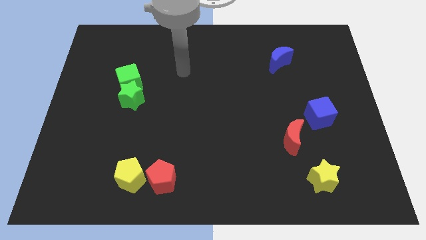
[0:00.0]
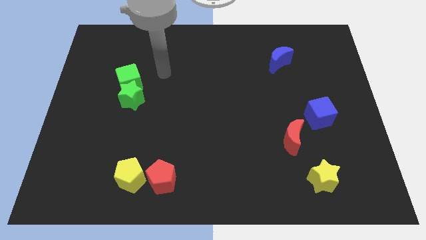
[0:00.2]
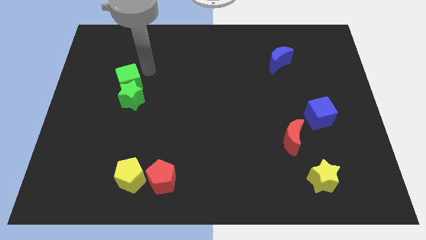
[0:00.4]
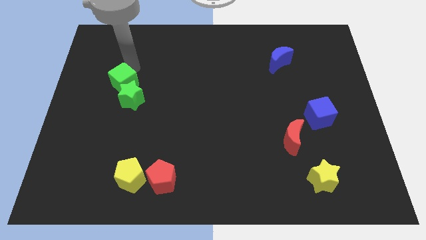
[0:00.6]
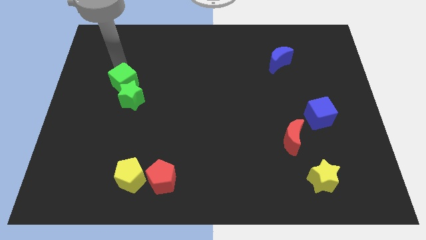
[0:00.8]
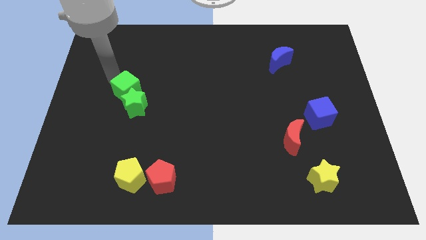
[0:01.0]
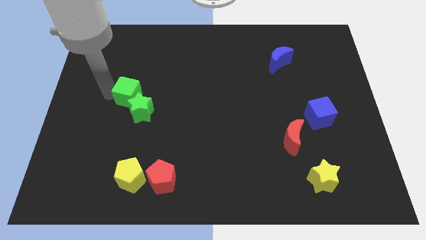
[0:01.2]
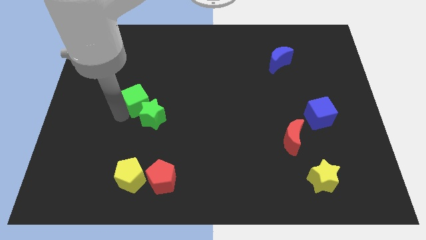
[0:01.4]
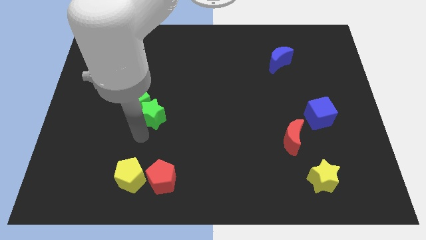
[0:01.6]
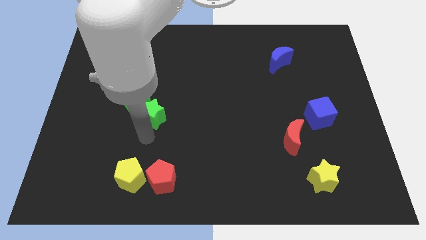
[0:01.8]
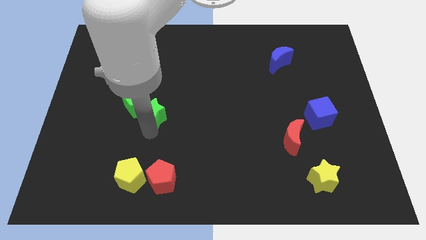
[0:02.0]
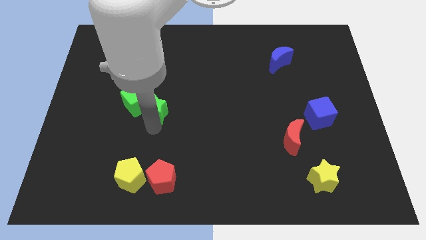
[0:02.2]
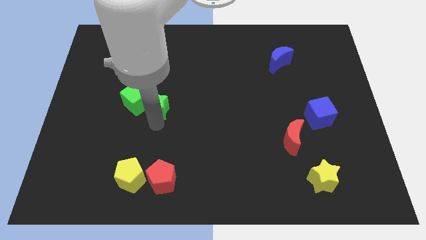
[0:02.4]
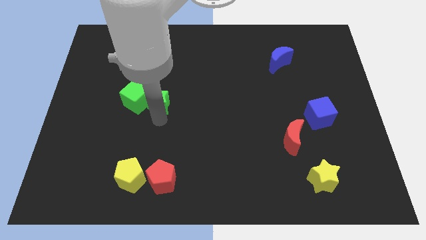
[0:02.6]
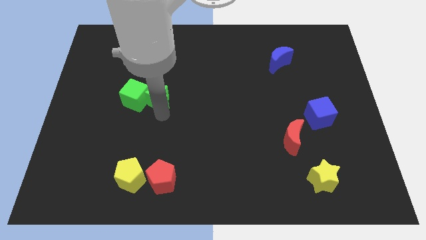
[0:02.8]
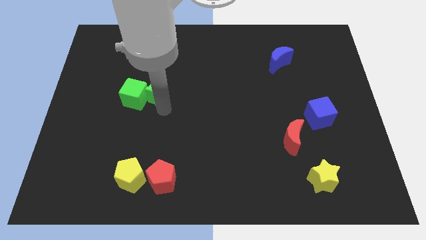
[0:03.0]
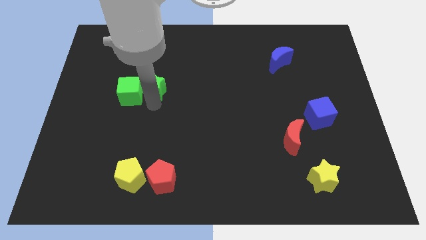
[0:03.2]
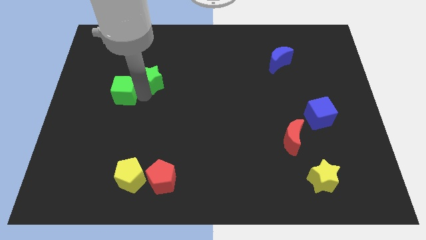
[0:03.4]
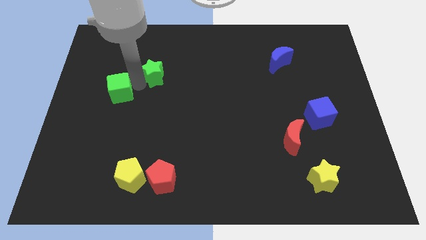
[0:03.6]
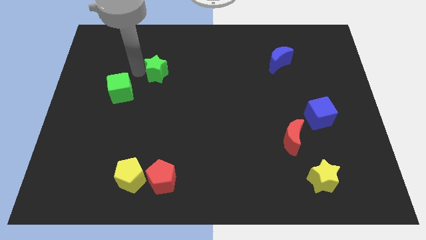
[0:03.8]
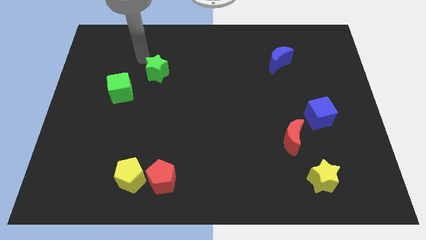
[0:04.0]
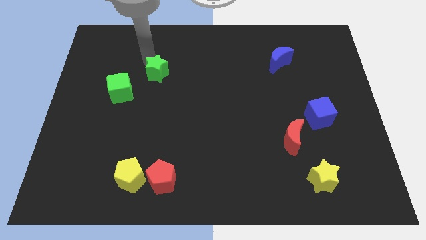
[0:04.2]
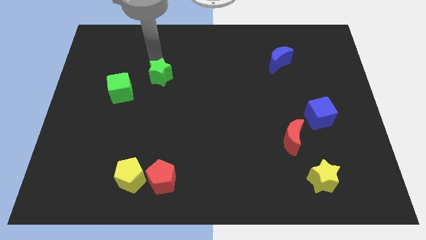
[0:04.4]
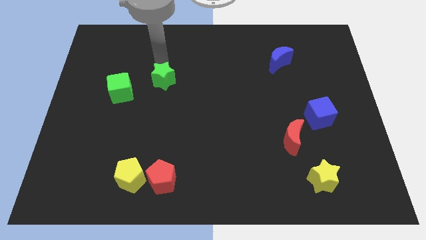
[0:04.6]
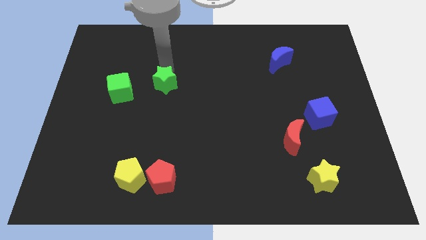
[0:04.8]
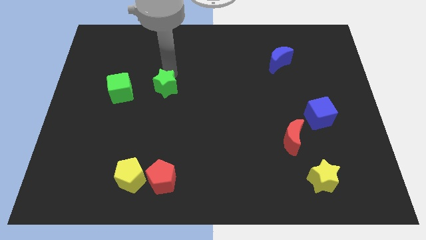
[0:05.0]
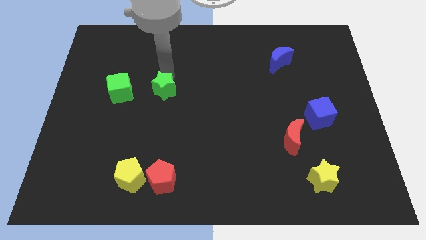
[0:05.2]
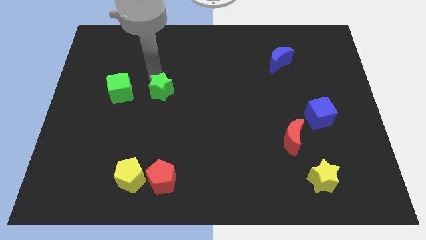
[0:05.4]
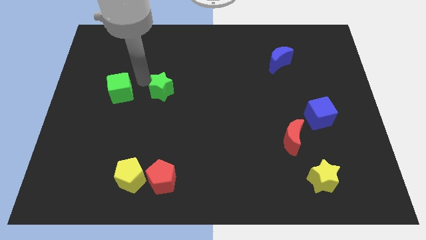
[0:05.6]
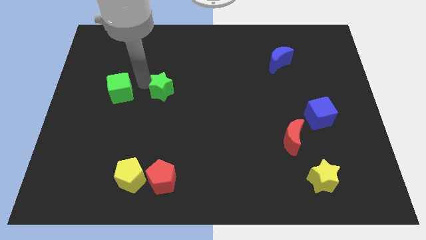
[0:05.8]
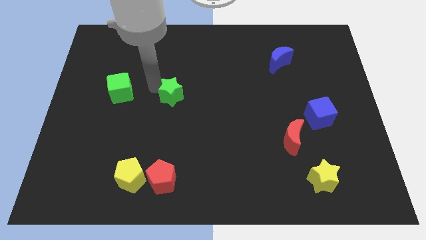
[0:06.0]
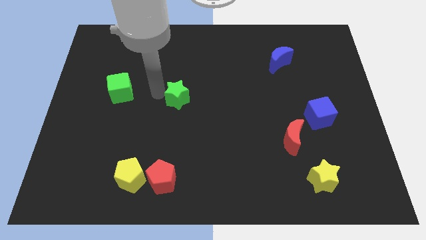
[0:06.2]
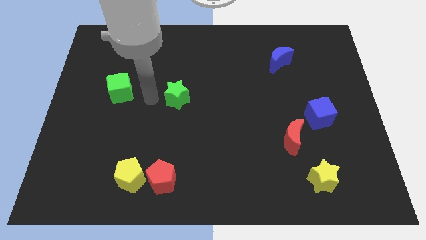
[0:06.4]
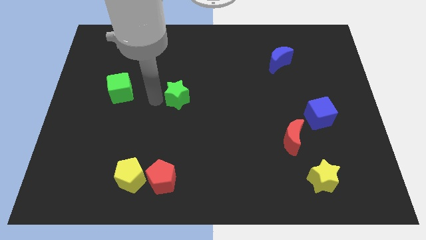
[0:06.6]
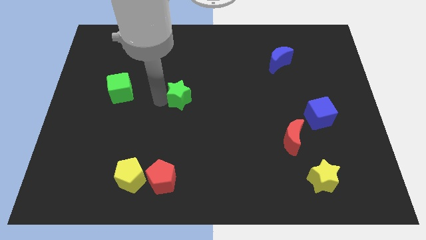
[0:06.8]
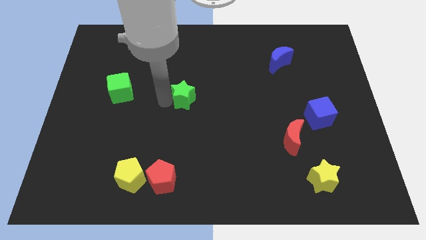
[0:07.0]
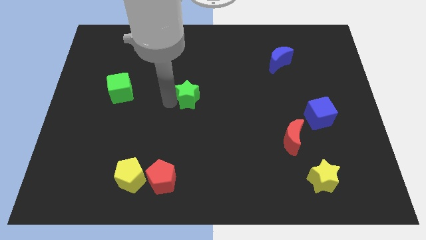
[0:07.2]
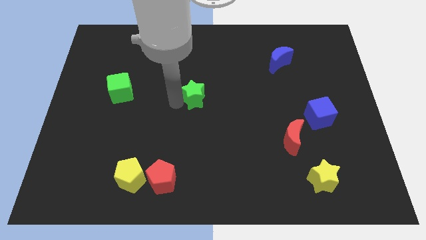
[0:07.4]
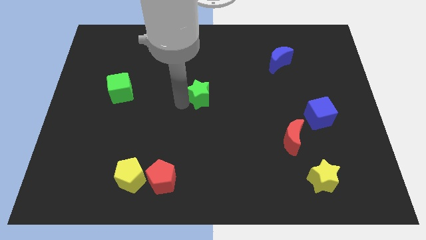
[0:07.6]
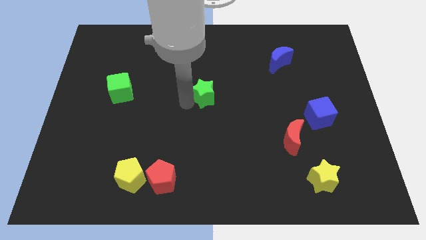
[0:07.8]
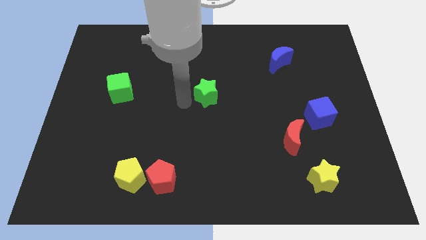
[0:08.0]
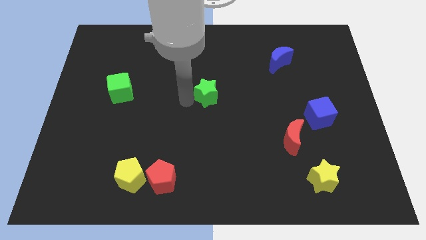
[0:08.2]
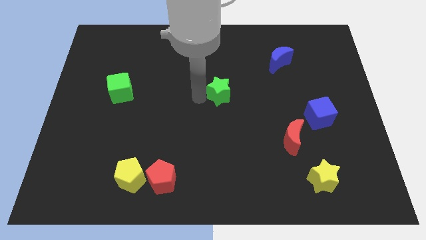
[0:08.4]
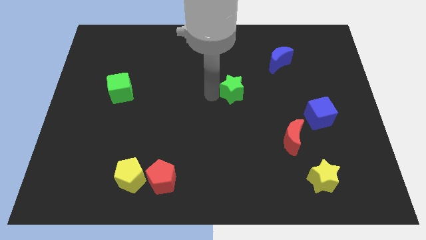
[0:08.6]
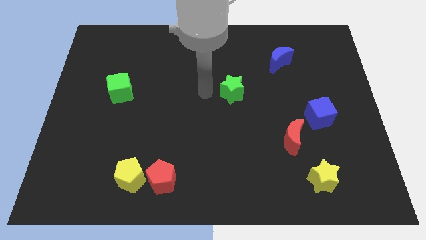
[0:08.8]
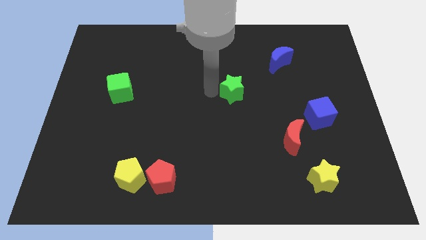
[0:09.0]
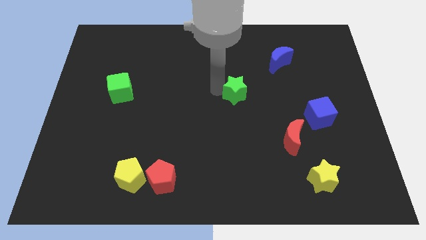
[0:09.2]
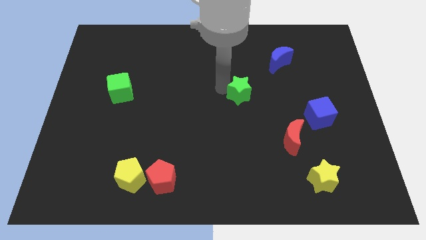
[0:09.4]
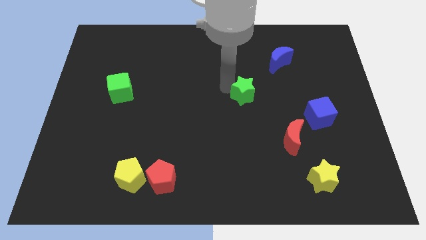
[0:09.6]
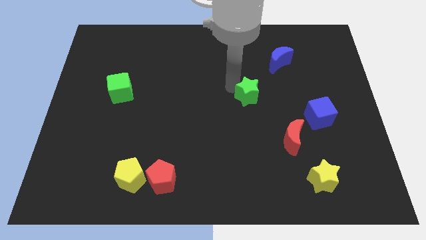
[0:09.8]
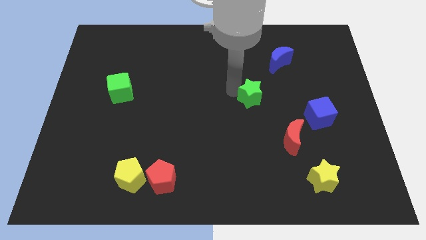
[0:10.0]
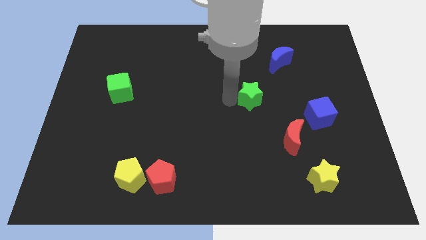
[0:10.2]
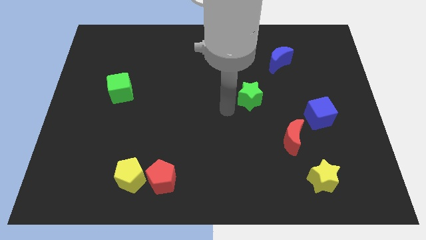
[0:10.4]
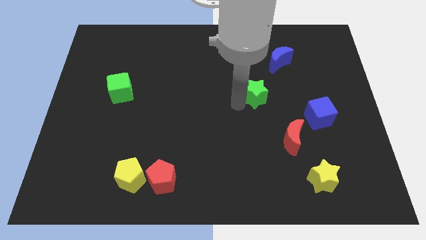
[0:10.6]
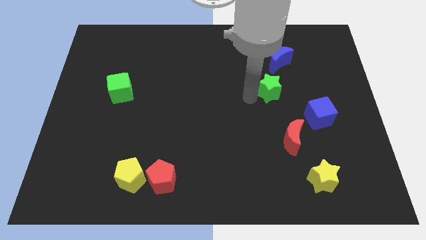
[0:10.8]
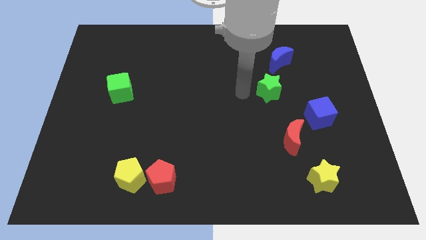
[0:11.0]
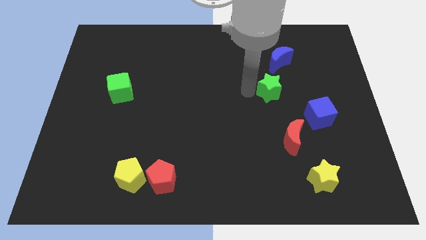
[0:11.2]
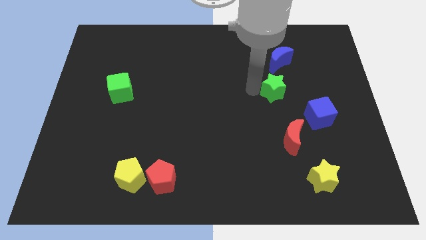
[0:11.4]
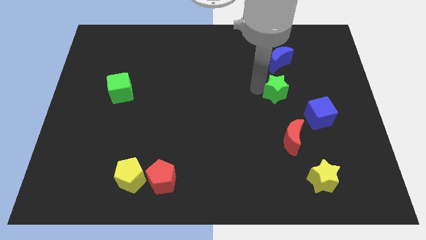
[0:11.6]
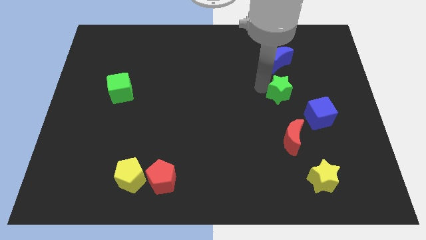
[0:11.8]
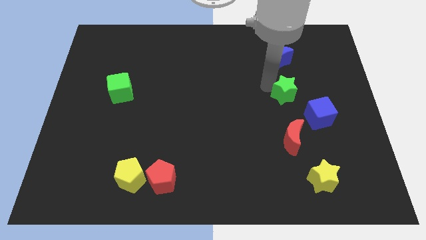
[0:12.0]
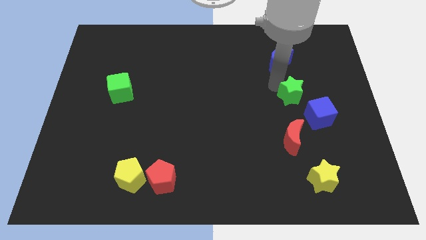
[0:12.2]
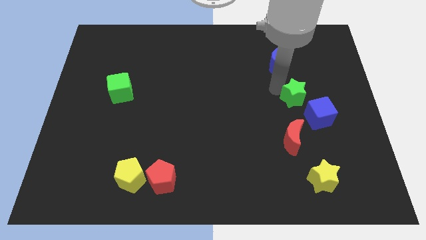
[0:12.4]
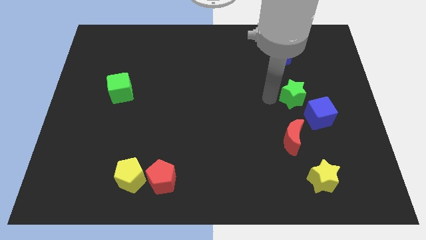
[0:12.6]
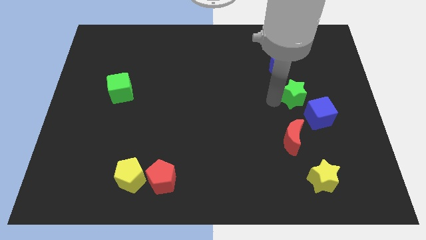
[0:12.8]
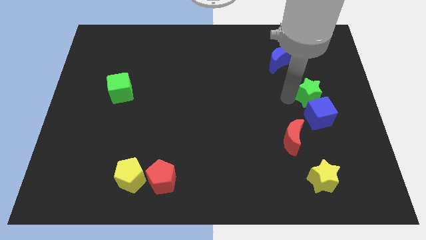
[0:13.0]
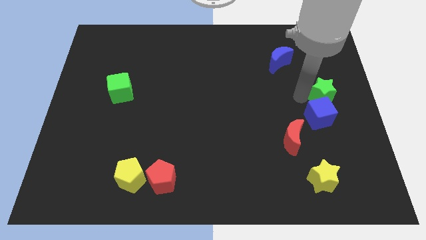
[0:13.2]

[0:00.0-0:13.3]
push the green star to the center right

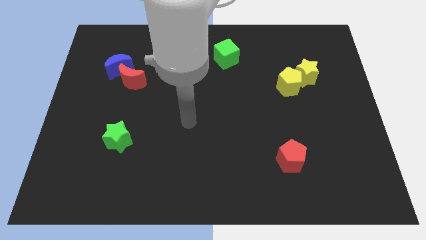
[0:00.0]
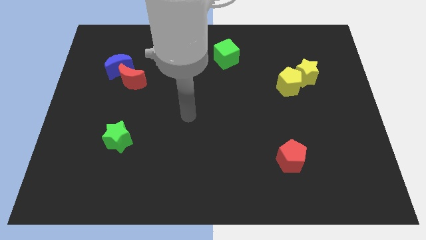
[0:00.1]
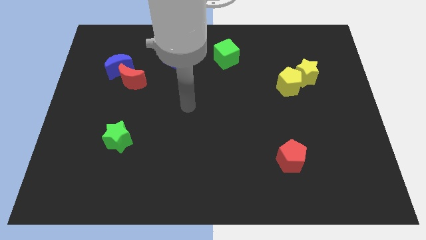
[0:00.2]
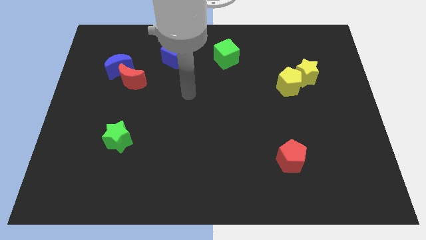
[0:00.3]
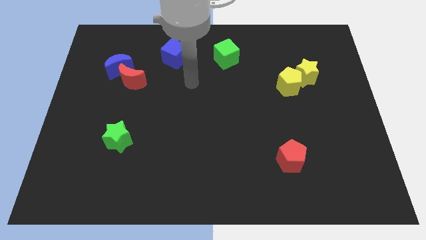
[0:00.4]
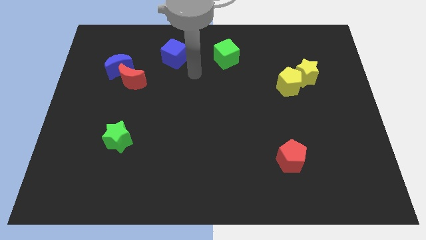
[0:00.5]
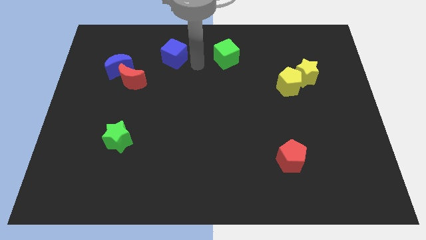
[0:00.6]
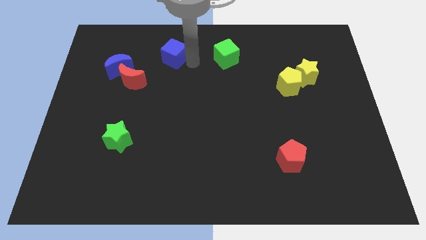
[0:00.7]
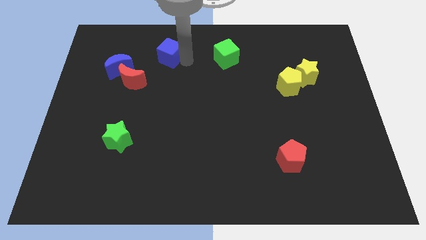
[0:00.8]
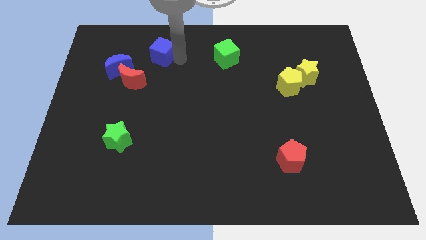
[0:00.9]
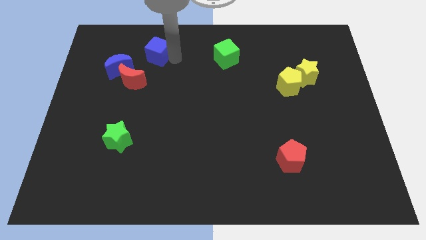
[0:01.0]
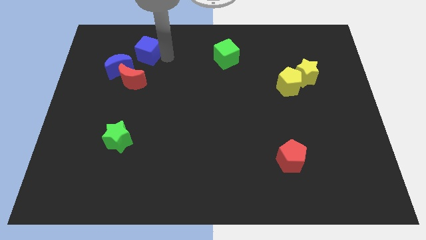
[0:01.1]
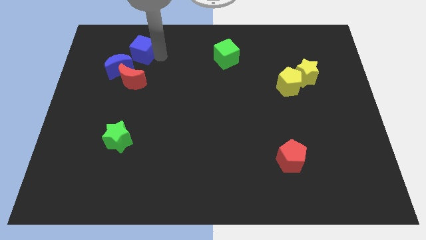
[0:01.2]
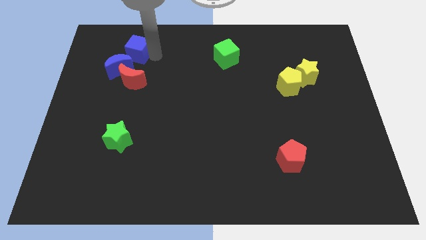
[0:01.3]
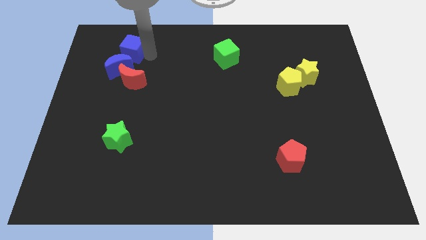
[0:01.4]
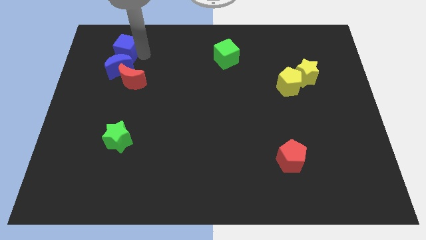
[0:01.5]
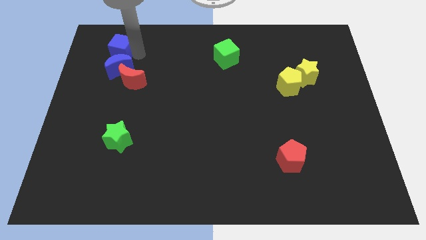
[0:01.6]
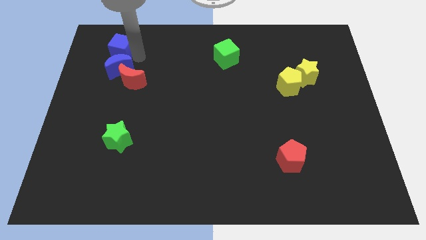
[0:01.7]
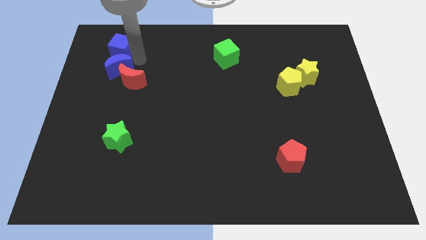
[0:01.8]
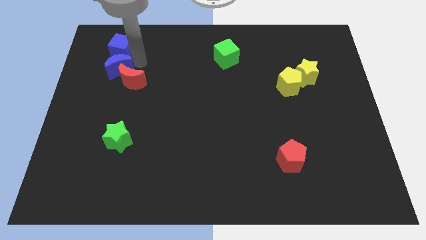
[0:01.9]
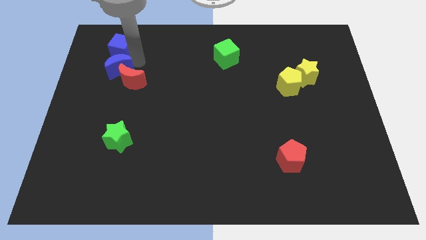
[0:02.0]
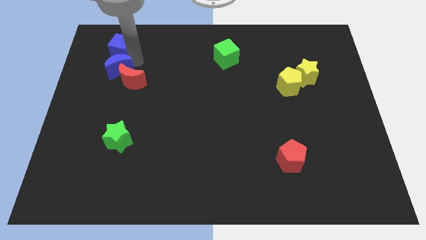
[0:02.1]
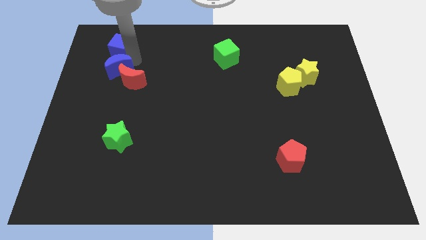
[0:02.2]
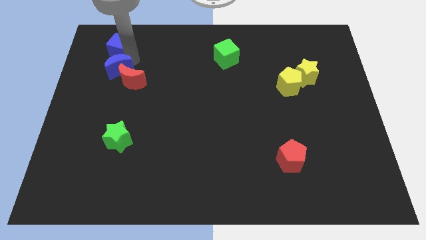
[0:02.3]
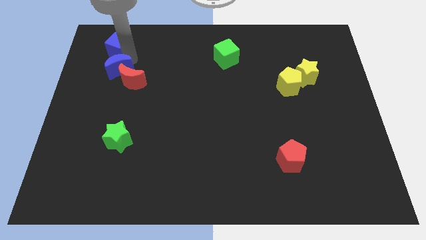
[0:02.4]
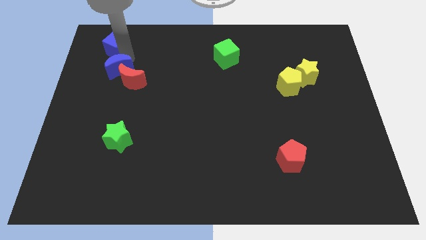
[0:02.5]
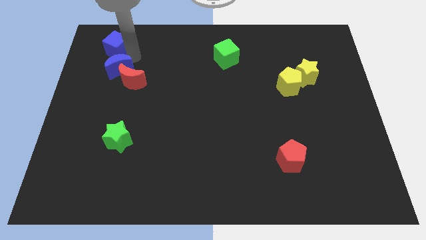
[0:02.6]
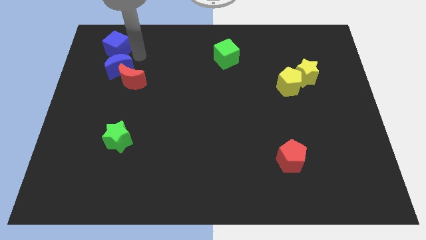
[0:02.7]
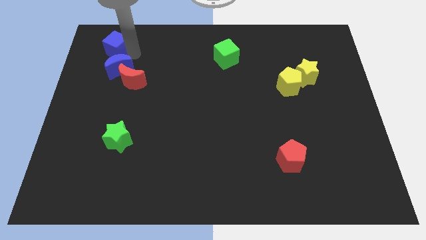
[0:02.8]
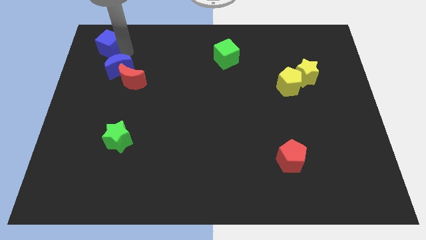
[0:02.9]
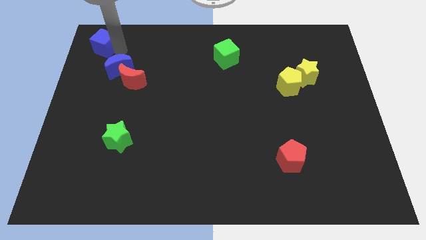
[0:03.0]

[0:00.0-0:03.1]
put the blue cube to the top left corner
